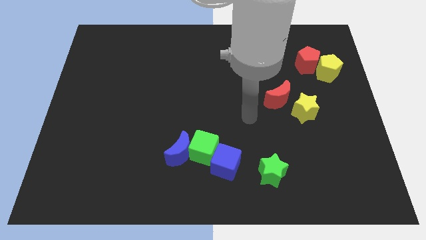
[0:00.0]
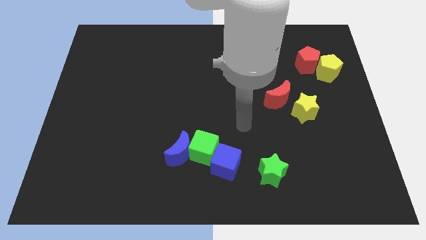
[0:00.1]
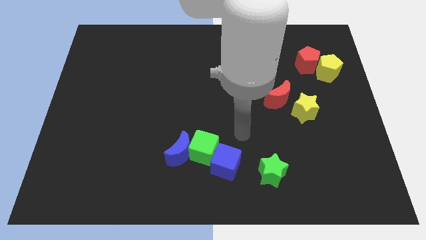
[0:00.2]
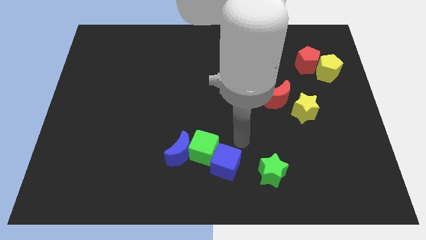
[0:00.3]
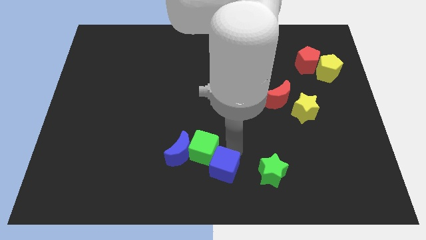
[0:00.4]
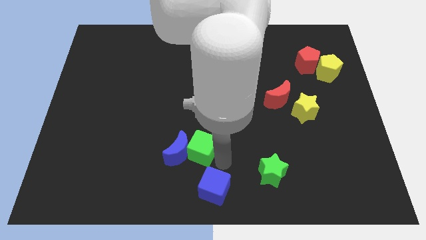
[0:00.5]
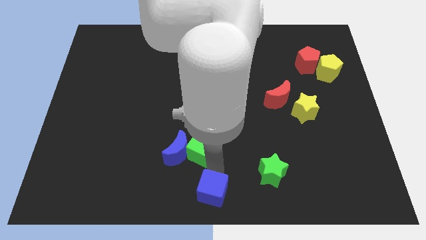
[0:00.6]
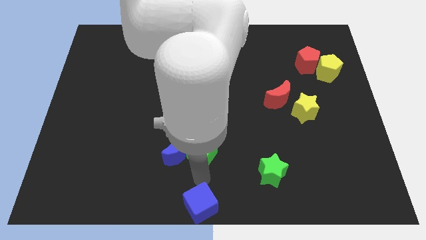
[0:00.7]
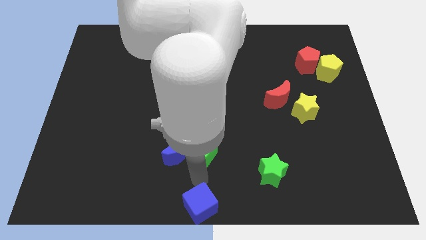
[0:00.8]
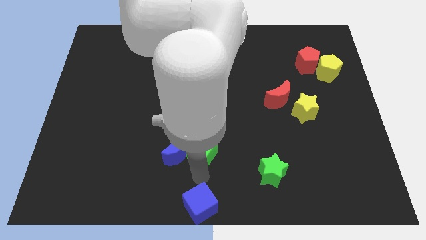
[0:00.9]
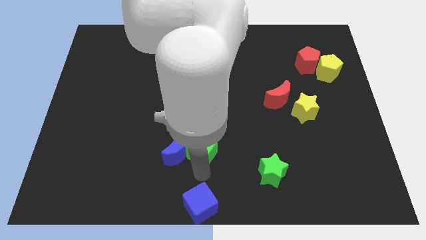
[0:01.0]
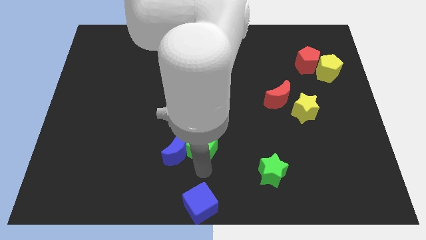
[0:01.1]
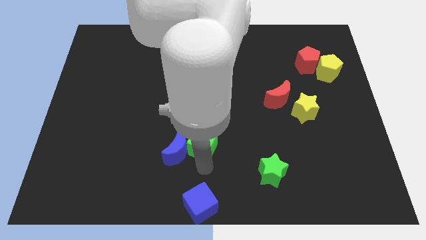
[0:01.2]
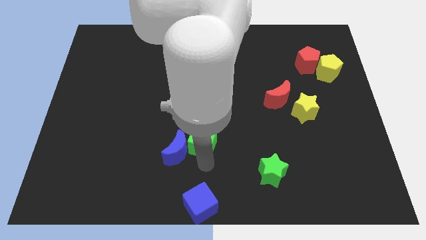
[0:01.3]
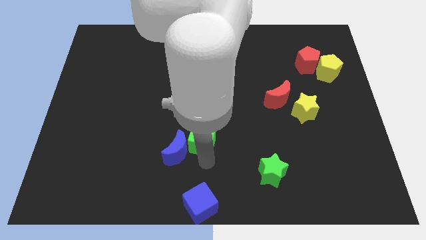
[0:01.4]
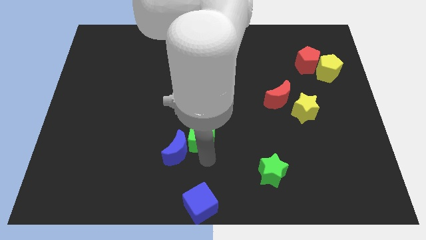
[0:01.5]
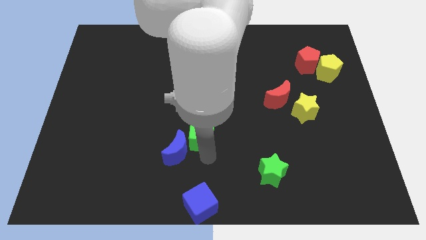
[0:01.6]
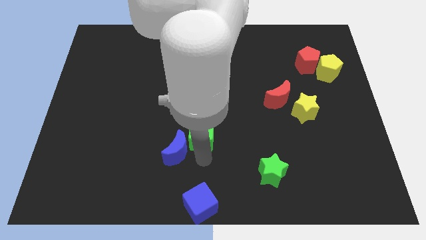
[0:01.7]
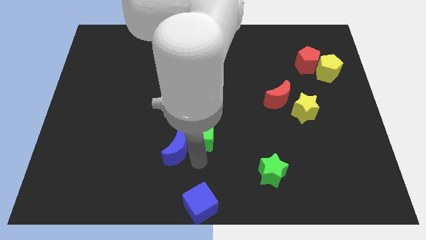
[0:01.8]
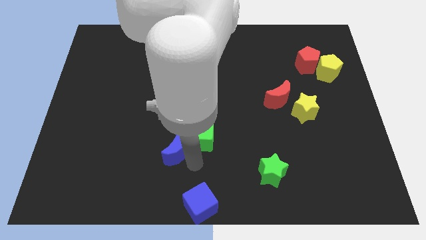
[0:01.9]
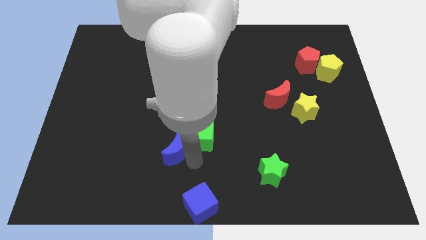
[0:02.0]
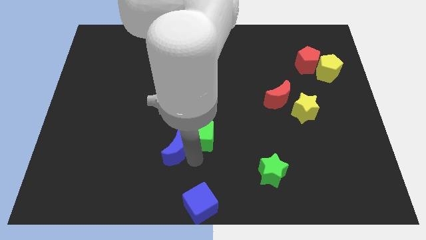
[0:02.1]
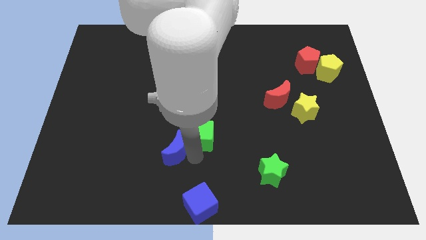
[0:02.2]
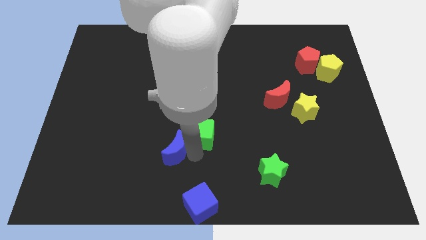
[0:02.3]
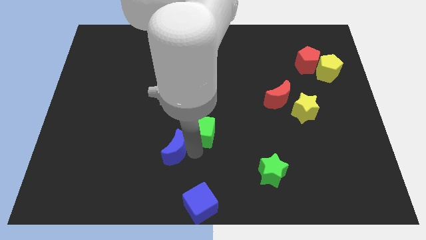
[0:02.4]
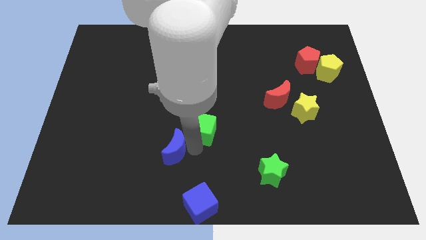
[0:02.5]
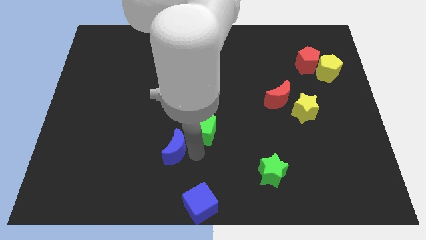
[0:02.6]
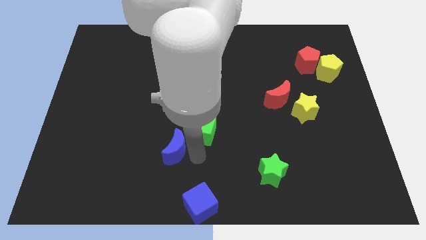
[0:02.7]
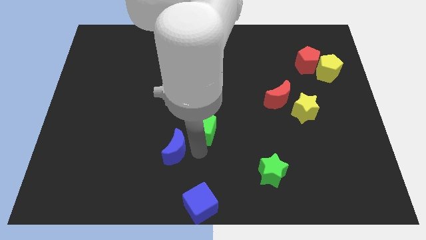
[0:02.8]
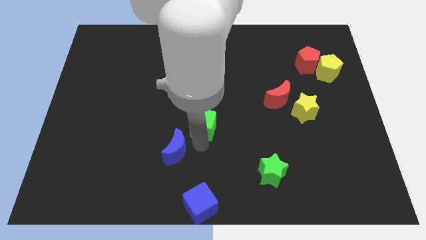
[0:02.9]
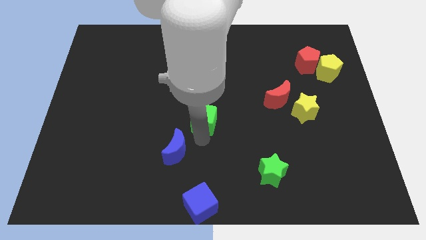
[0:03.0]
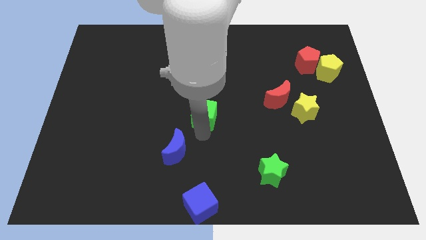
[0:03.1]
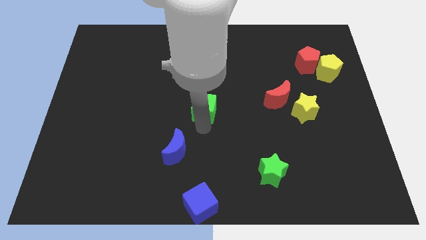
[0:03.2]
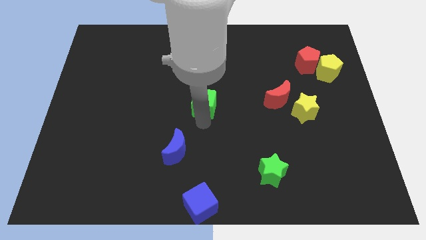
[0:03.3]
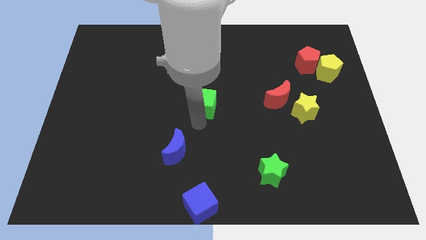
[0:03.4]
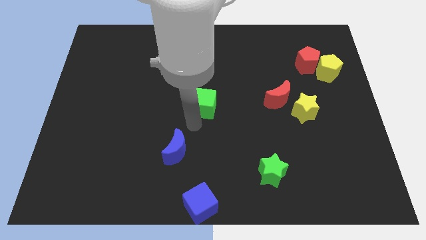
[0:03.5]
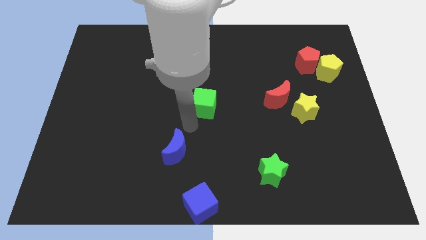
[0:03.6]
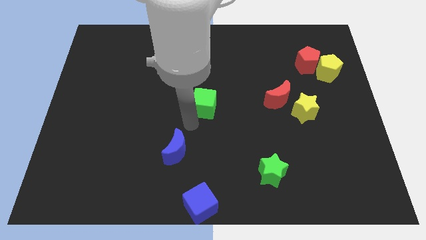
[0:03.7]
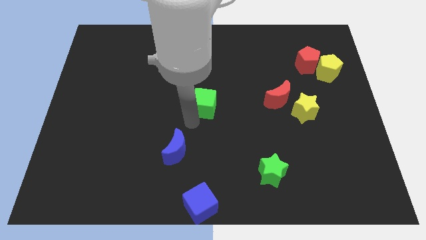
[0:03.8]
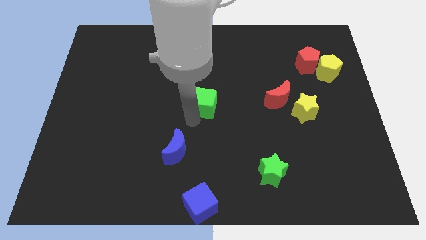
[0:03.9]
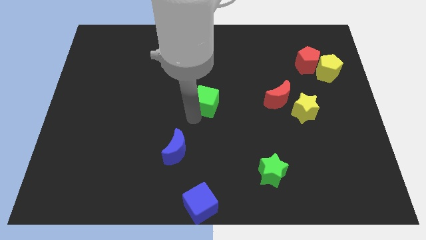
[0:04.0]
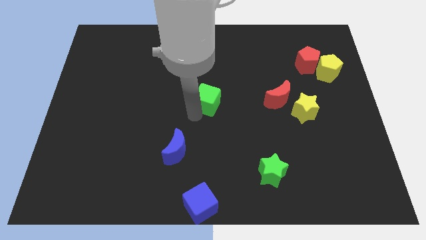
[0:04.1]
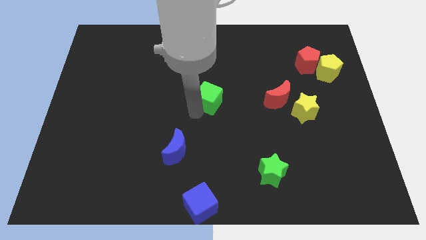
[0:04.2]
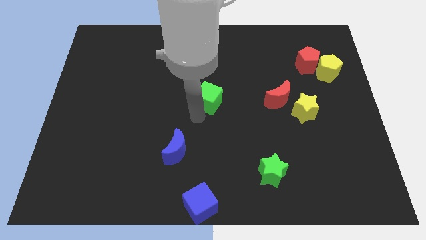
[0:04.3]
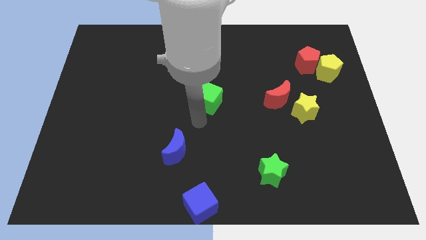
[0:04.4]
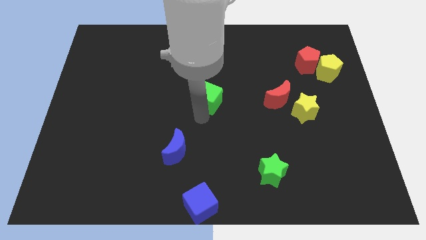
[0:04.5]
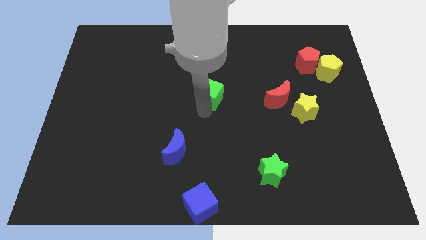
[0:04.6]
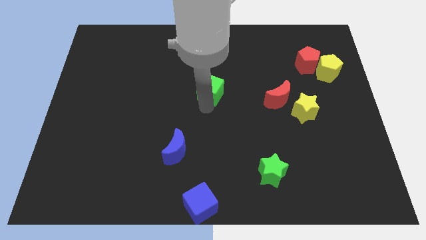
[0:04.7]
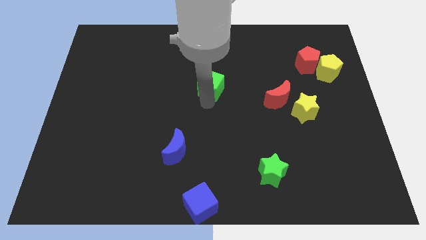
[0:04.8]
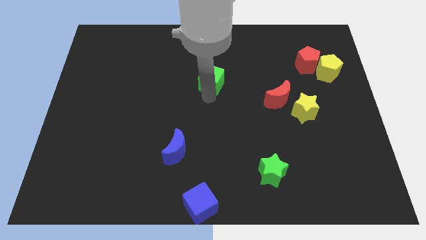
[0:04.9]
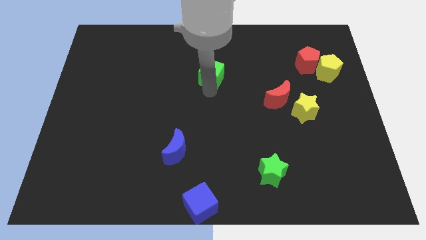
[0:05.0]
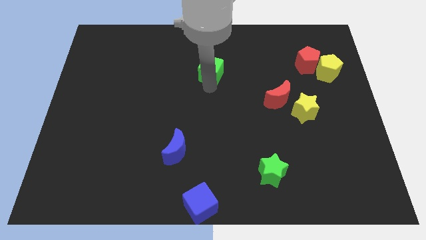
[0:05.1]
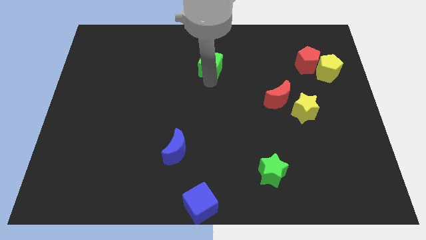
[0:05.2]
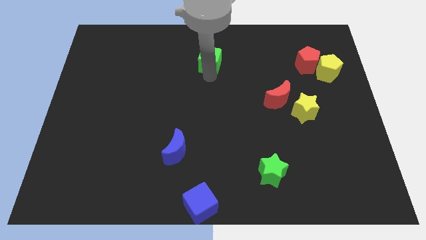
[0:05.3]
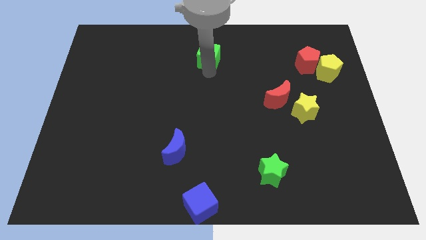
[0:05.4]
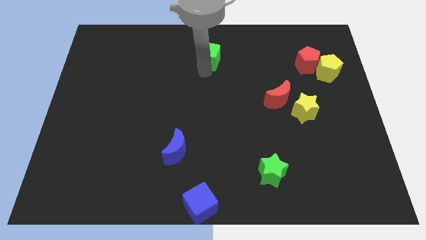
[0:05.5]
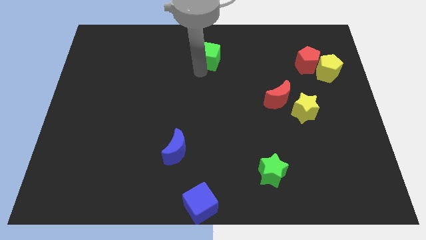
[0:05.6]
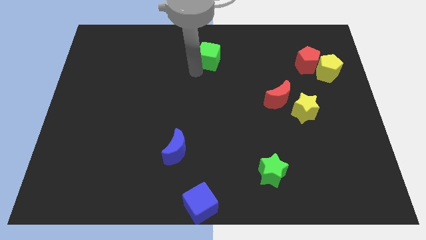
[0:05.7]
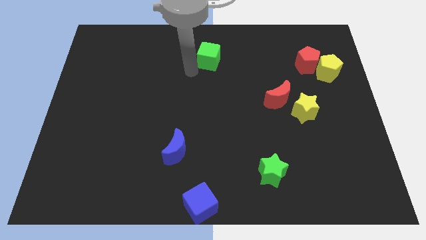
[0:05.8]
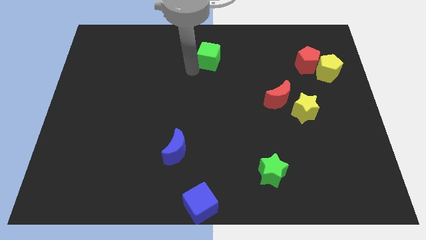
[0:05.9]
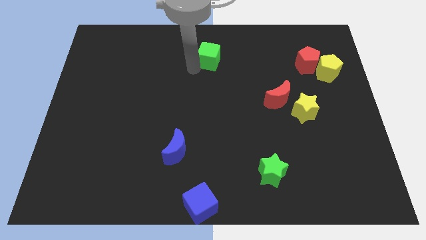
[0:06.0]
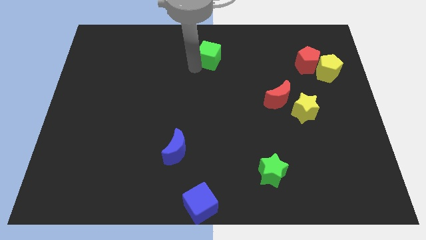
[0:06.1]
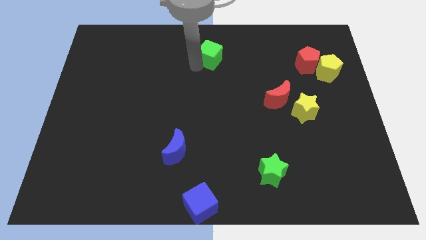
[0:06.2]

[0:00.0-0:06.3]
move the green cube to the towards your base

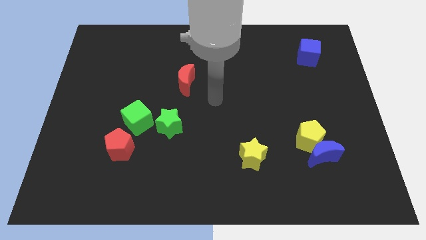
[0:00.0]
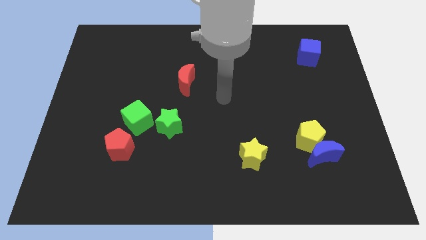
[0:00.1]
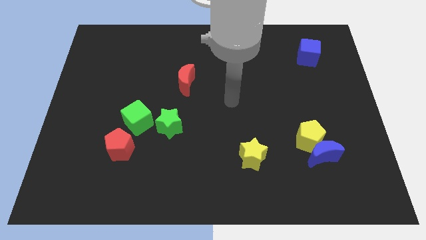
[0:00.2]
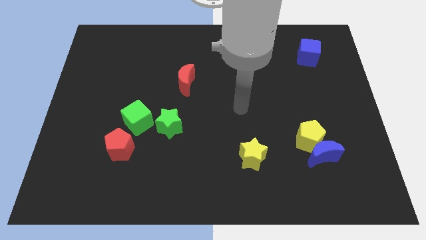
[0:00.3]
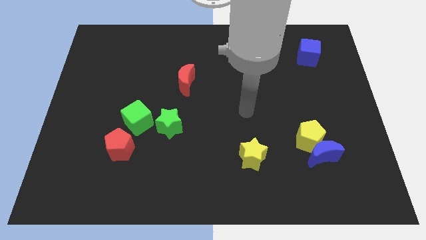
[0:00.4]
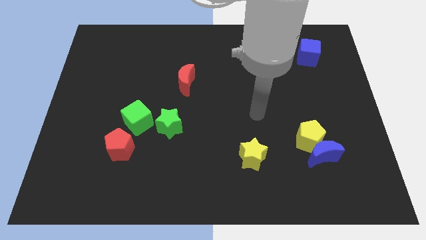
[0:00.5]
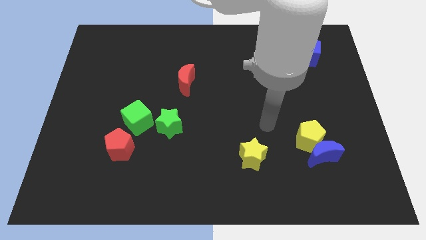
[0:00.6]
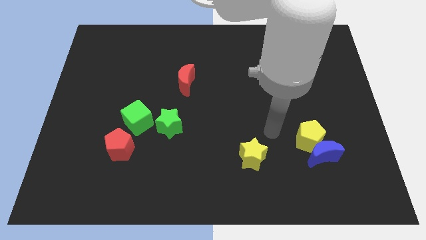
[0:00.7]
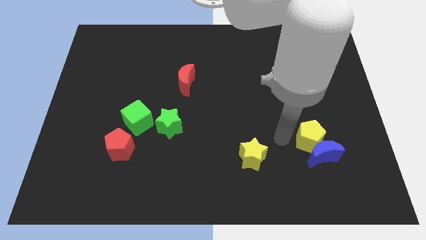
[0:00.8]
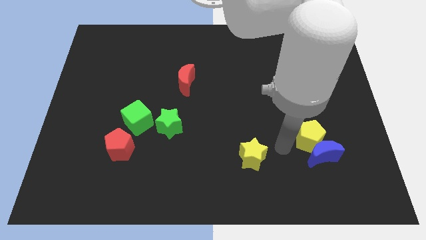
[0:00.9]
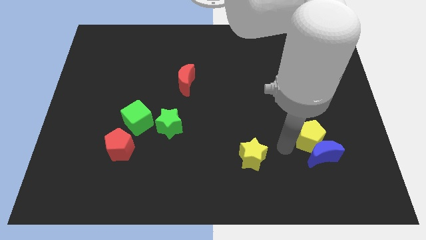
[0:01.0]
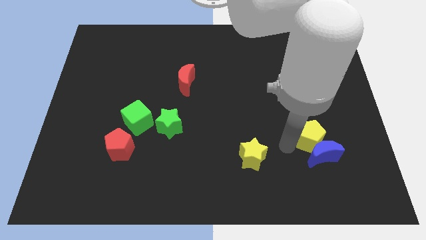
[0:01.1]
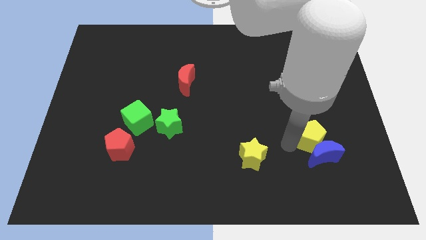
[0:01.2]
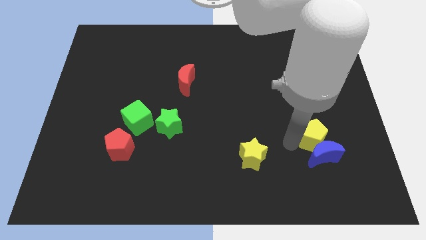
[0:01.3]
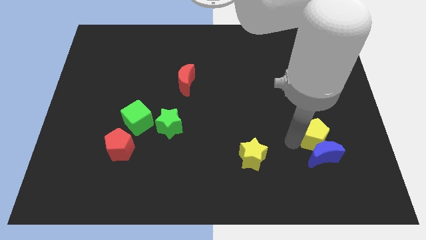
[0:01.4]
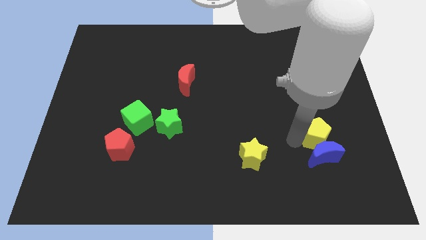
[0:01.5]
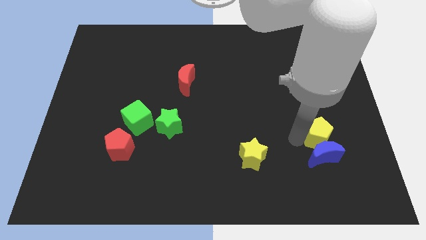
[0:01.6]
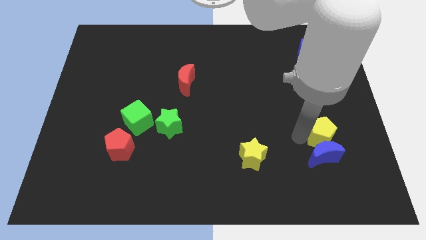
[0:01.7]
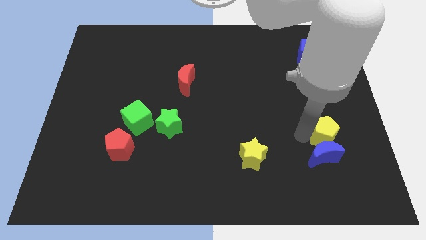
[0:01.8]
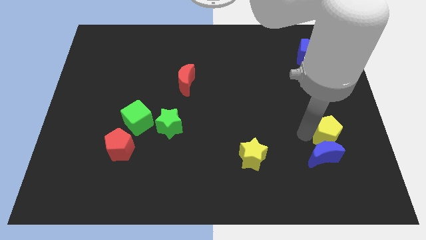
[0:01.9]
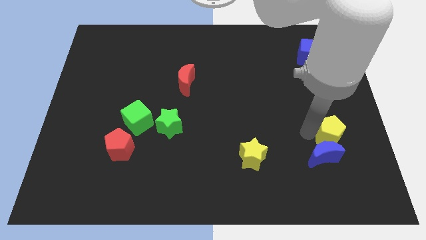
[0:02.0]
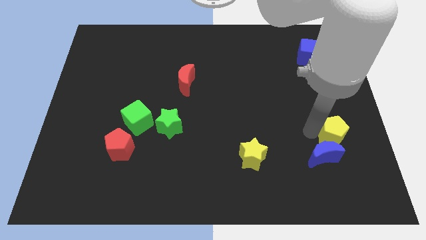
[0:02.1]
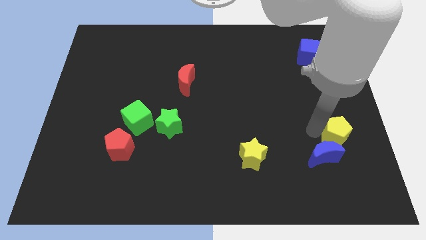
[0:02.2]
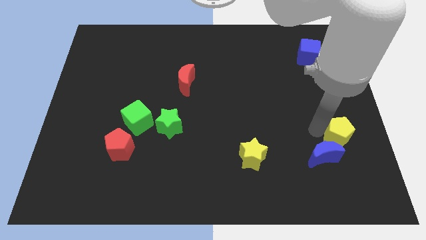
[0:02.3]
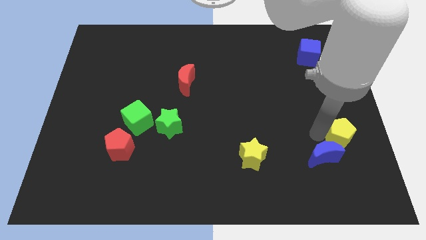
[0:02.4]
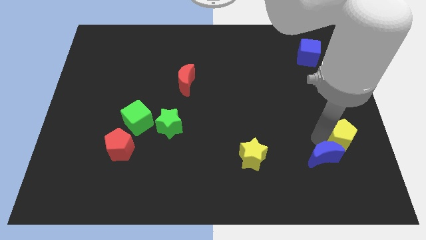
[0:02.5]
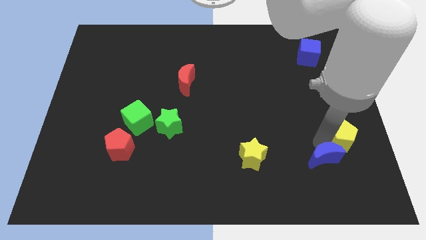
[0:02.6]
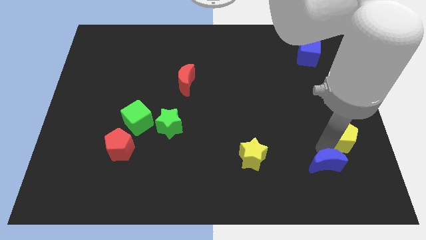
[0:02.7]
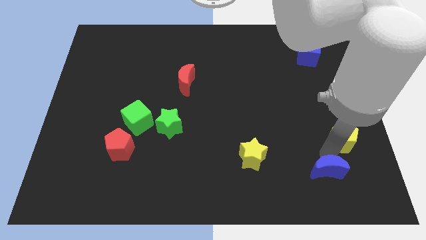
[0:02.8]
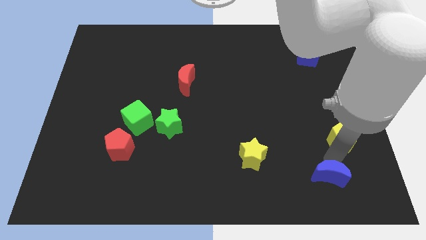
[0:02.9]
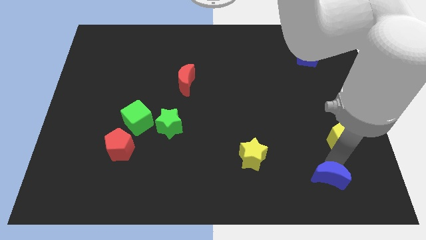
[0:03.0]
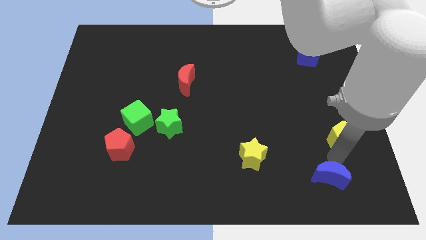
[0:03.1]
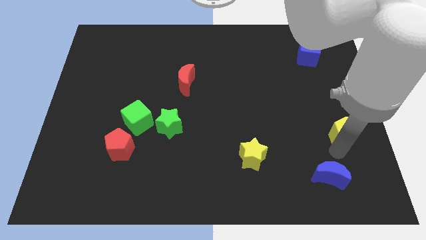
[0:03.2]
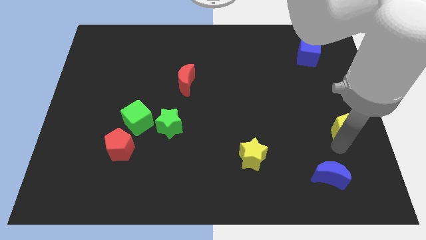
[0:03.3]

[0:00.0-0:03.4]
move the yellow pentagon to the right side
